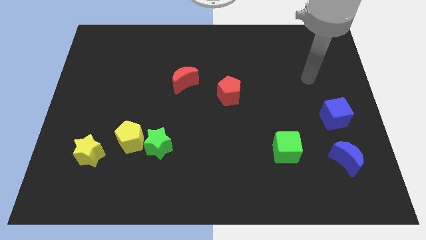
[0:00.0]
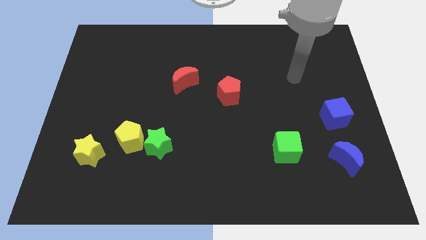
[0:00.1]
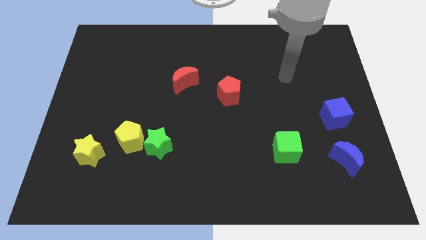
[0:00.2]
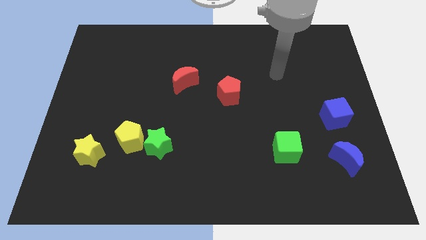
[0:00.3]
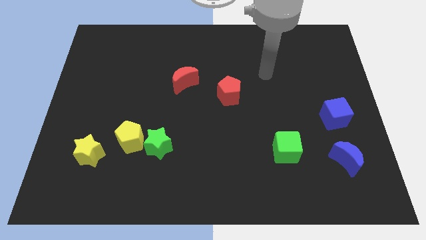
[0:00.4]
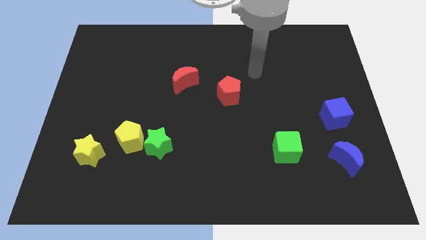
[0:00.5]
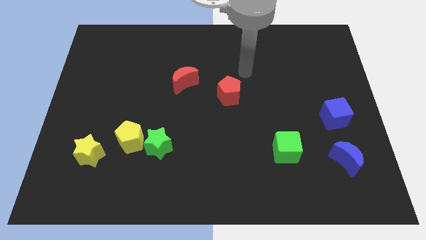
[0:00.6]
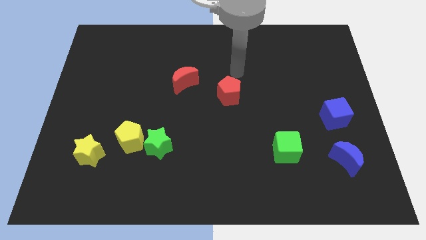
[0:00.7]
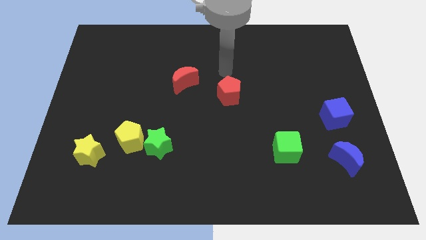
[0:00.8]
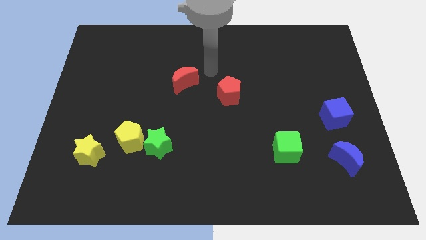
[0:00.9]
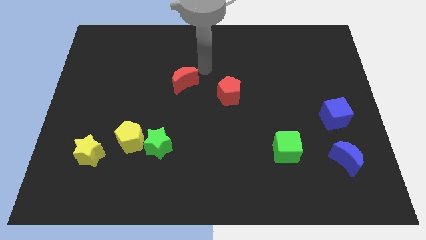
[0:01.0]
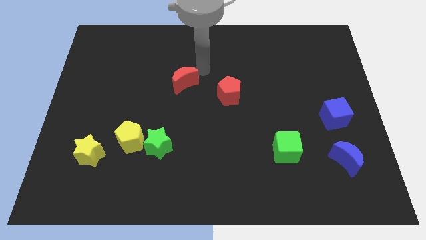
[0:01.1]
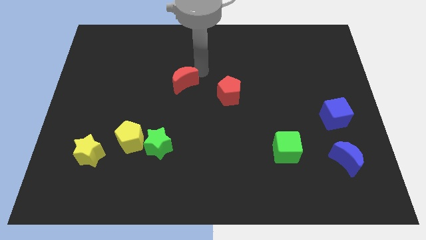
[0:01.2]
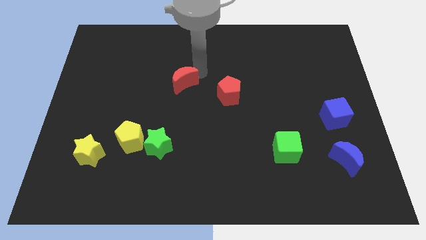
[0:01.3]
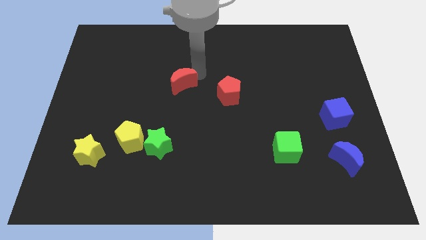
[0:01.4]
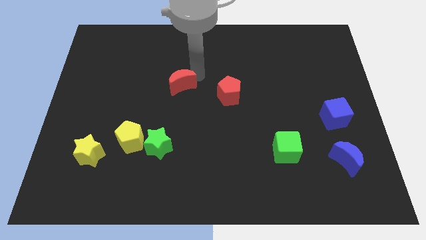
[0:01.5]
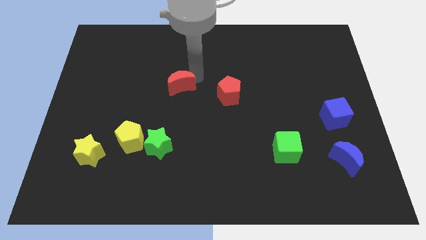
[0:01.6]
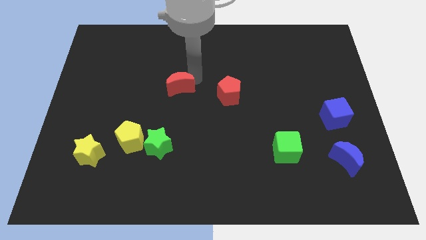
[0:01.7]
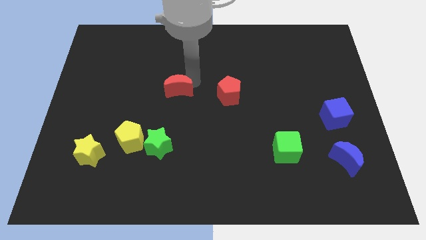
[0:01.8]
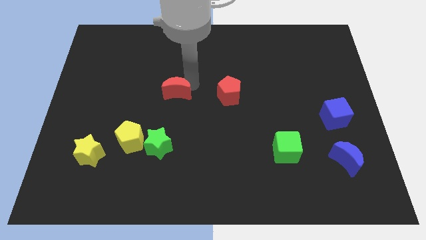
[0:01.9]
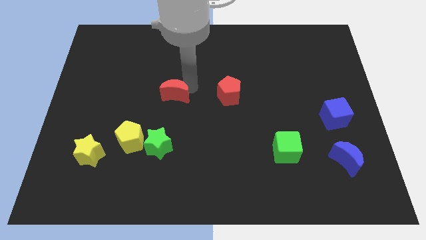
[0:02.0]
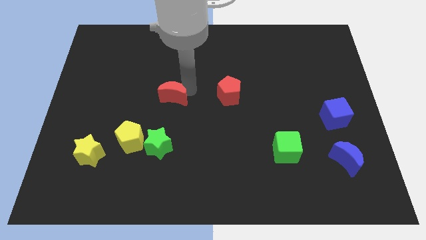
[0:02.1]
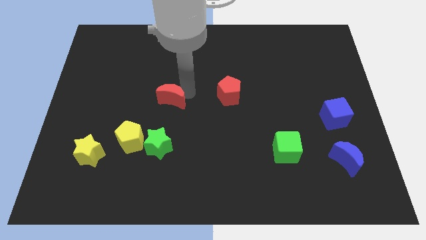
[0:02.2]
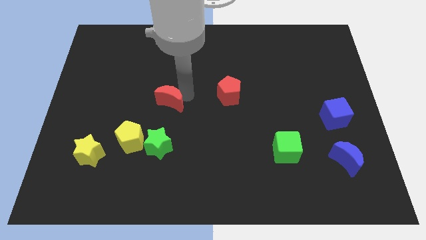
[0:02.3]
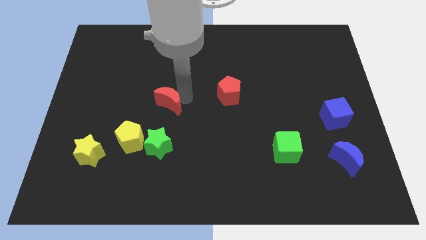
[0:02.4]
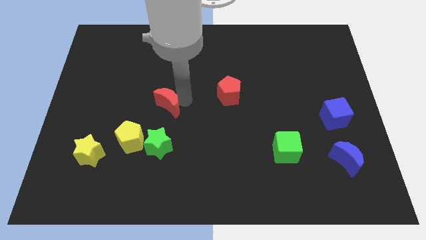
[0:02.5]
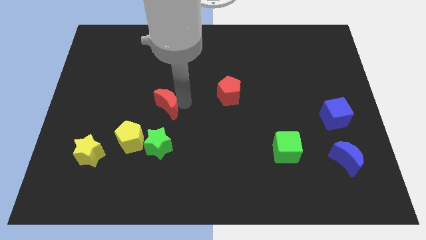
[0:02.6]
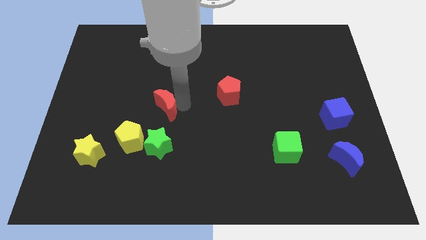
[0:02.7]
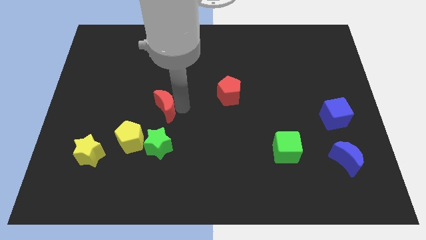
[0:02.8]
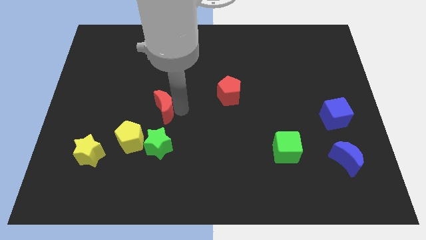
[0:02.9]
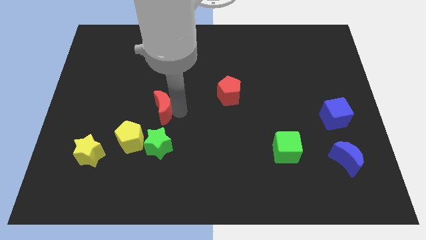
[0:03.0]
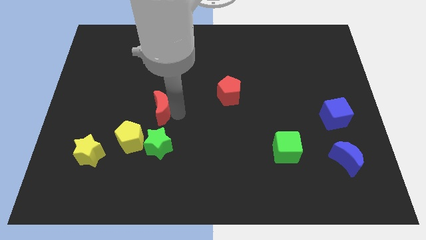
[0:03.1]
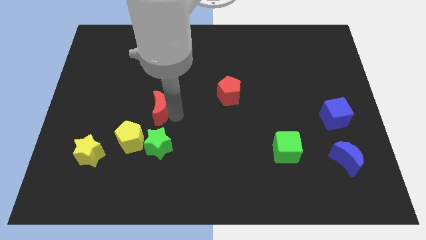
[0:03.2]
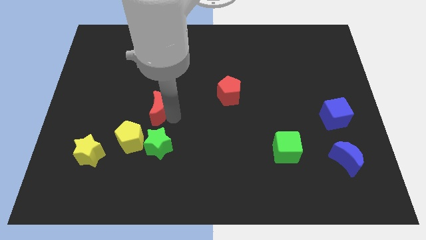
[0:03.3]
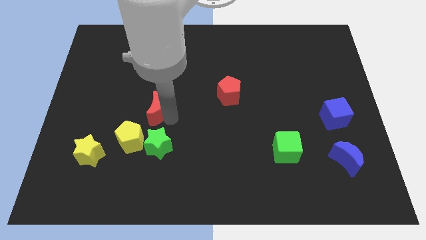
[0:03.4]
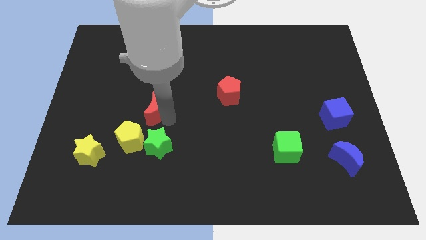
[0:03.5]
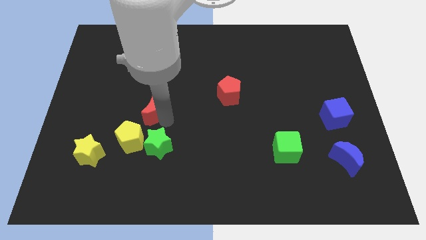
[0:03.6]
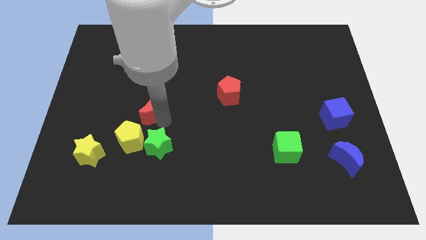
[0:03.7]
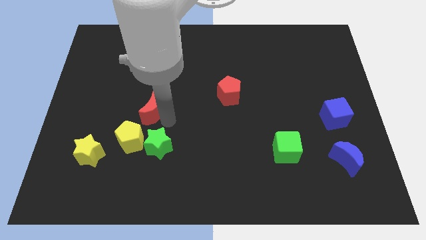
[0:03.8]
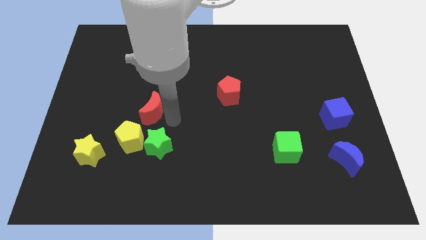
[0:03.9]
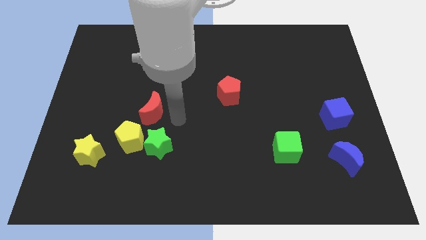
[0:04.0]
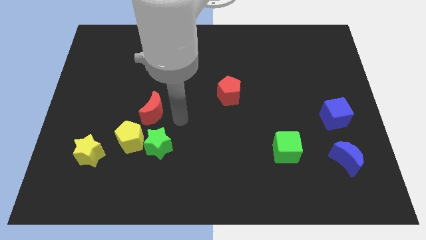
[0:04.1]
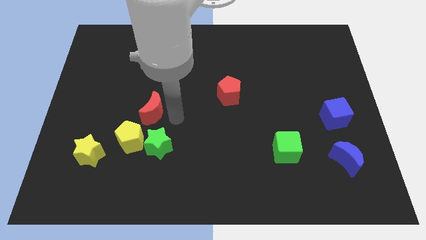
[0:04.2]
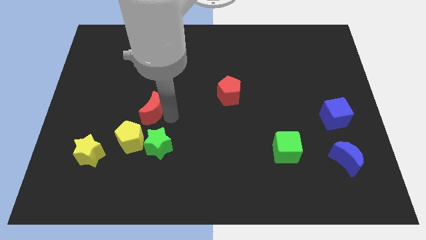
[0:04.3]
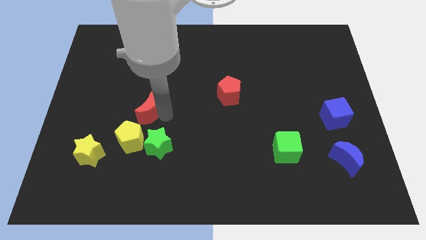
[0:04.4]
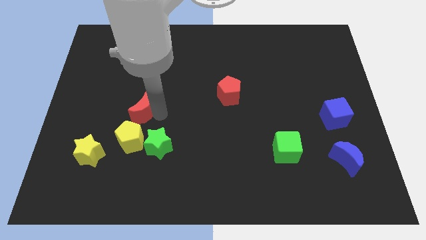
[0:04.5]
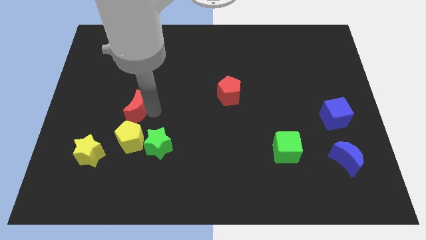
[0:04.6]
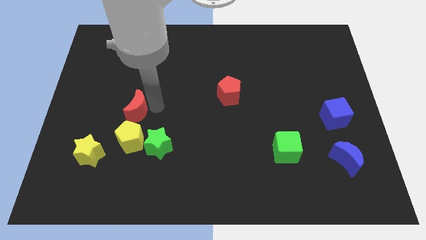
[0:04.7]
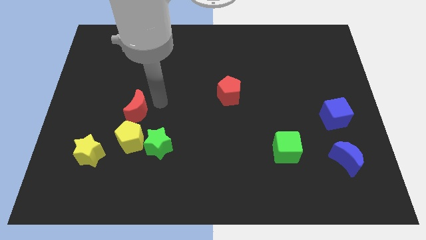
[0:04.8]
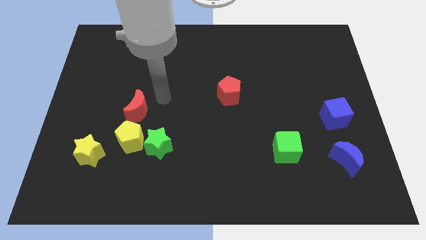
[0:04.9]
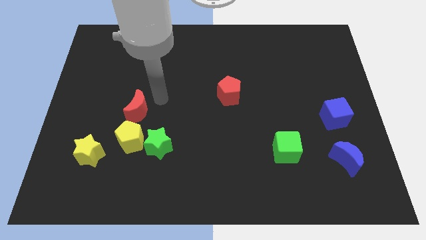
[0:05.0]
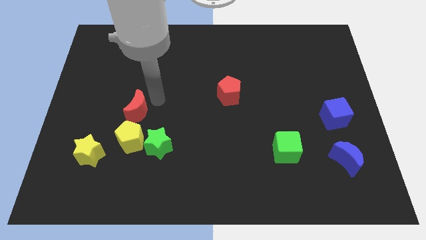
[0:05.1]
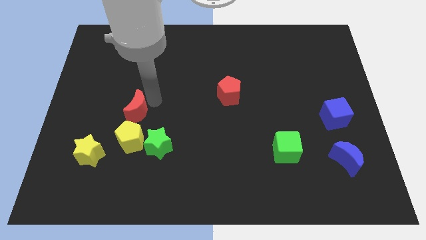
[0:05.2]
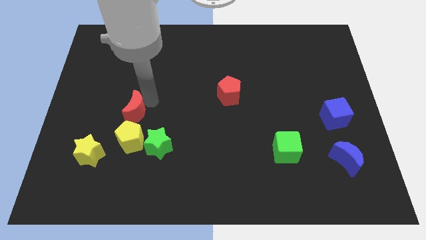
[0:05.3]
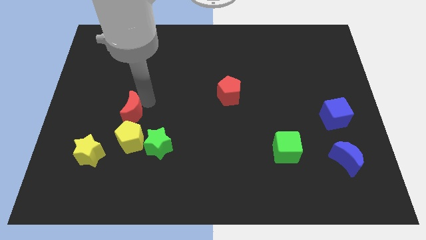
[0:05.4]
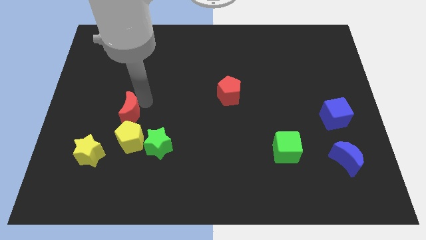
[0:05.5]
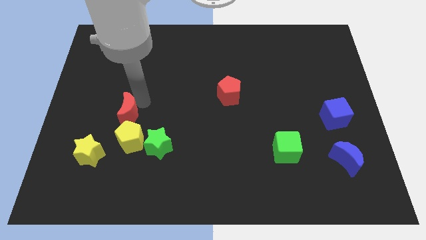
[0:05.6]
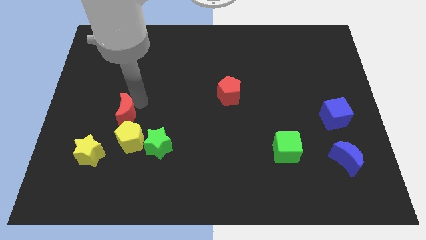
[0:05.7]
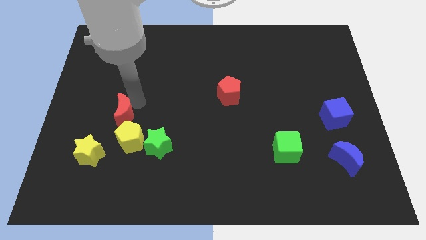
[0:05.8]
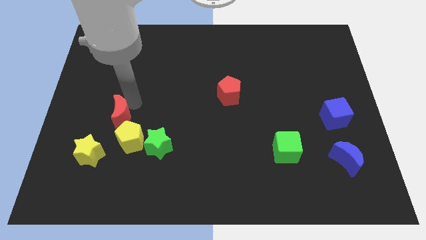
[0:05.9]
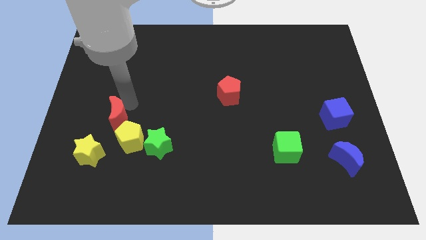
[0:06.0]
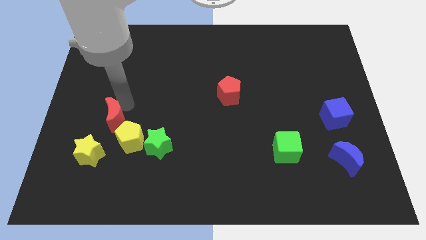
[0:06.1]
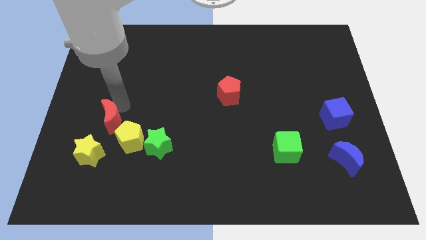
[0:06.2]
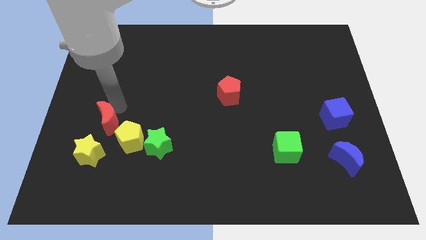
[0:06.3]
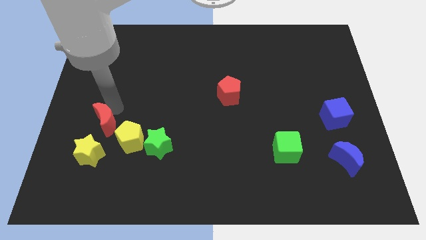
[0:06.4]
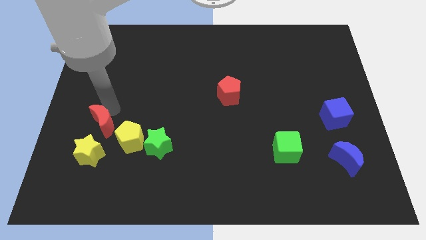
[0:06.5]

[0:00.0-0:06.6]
put the red moon to the left side of the yellow pentagon

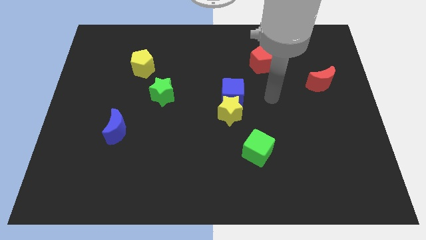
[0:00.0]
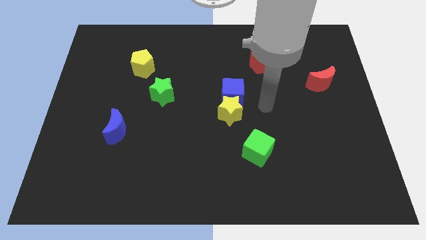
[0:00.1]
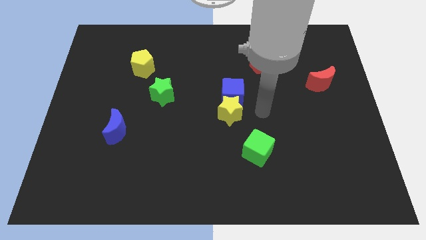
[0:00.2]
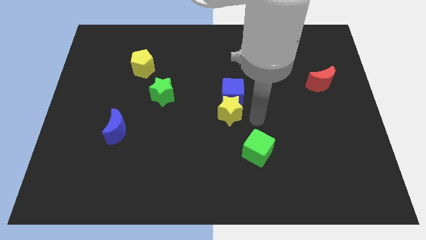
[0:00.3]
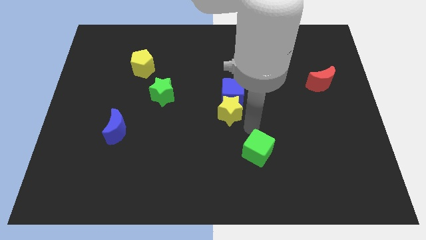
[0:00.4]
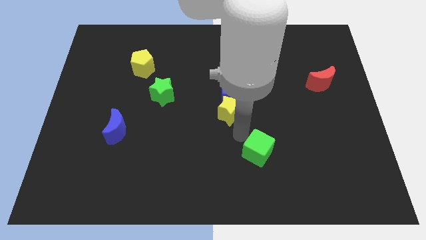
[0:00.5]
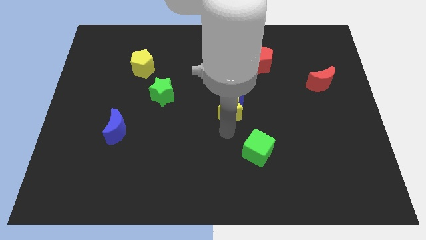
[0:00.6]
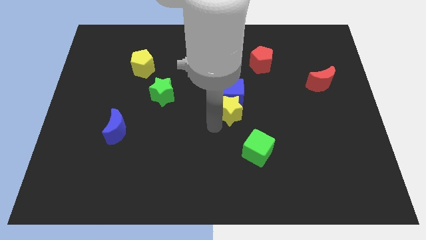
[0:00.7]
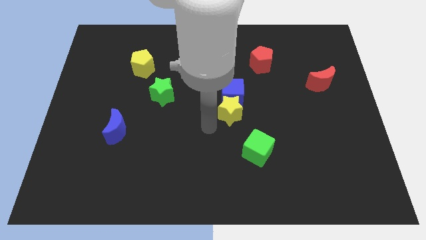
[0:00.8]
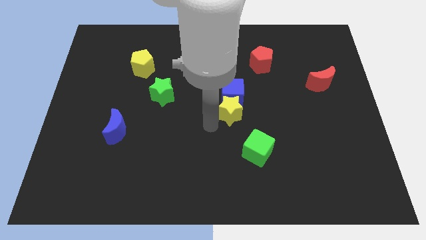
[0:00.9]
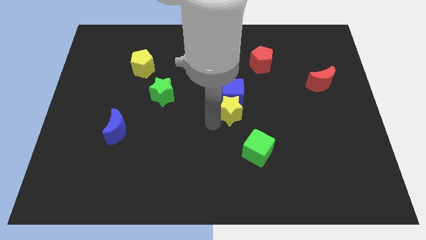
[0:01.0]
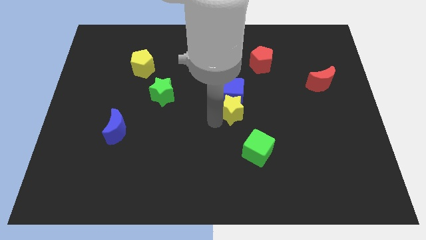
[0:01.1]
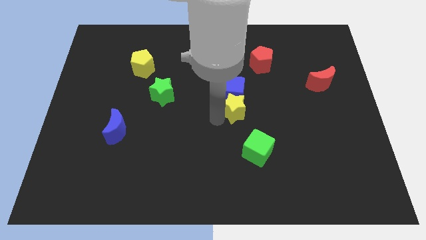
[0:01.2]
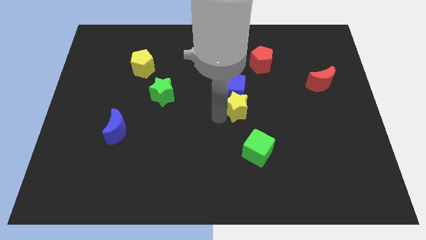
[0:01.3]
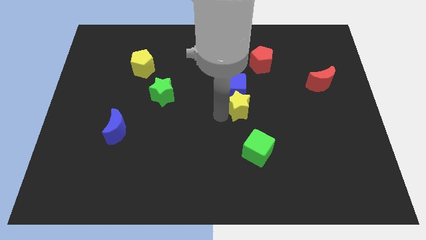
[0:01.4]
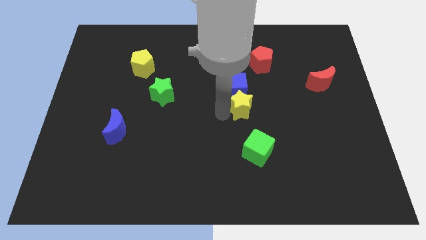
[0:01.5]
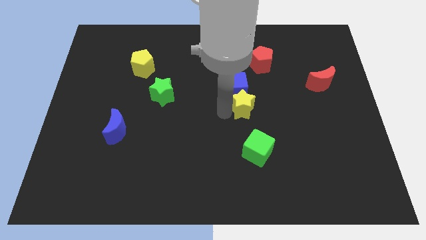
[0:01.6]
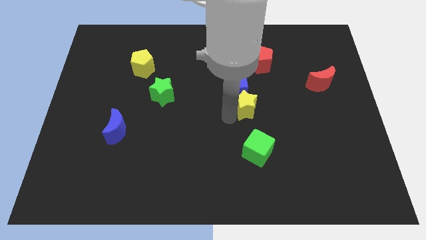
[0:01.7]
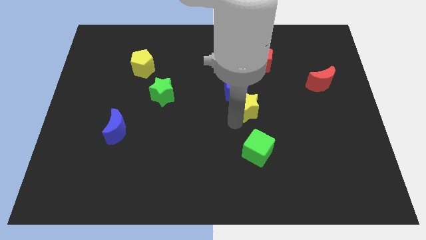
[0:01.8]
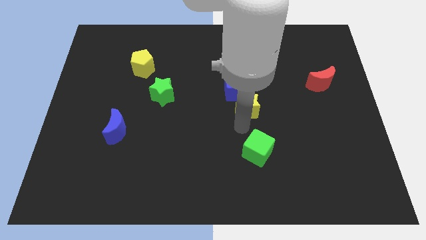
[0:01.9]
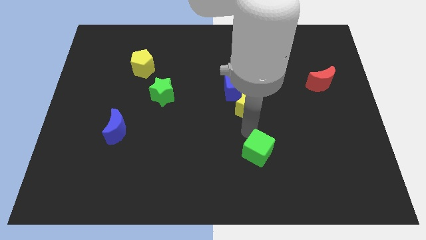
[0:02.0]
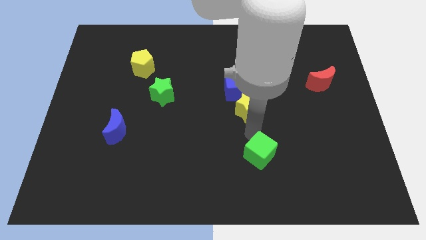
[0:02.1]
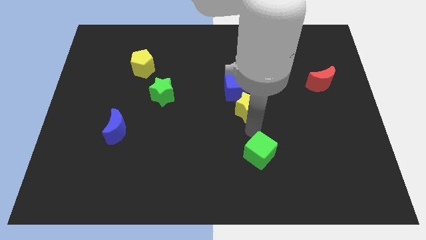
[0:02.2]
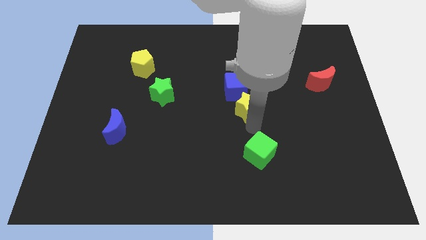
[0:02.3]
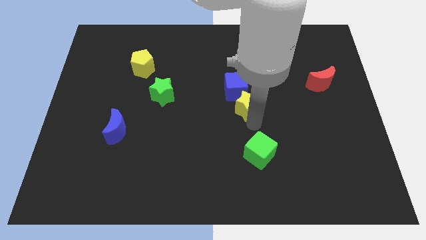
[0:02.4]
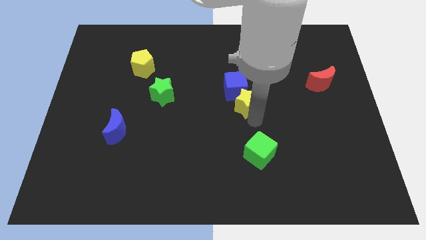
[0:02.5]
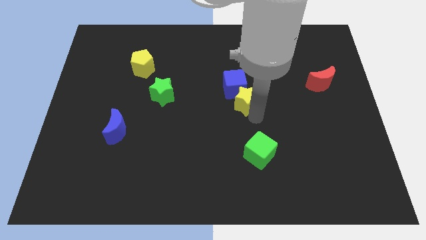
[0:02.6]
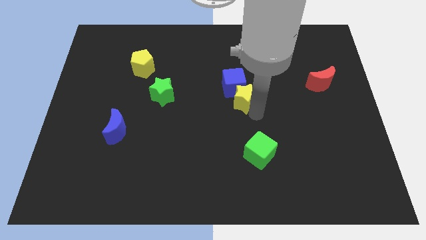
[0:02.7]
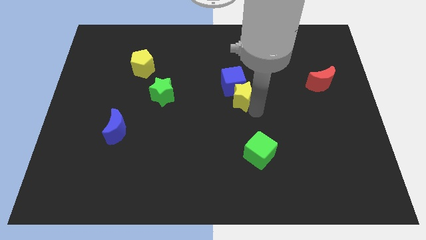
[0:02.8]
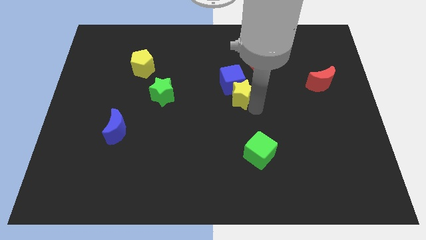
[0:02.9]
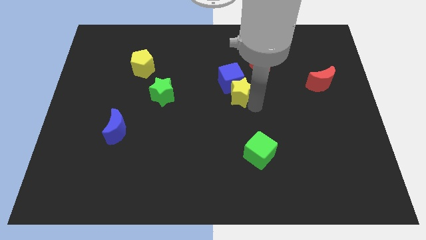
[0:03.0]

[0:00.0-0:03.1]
slide the yellow star to the bottom left side of the red pentagon
